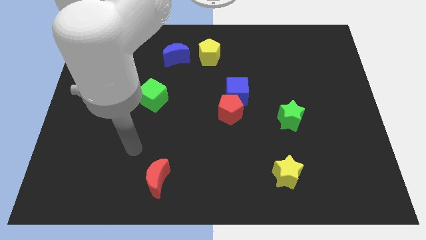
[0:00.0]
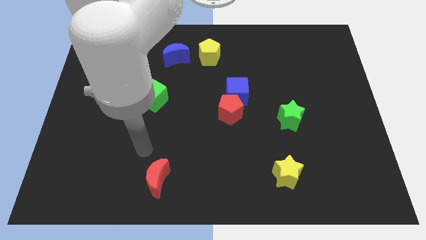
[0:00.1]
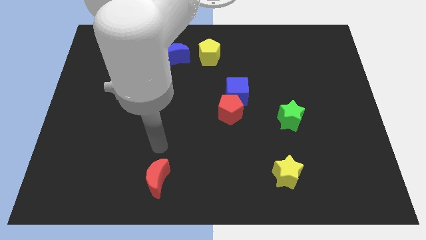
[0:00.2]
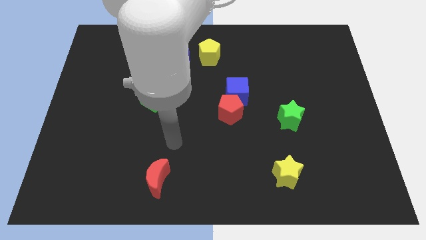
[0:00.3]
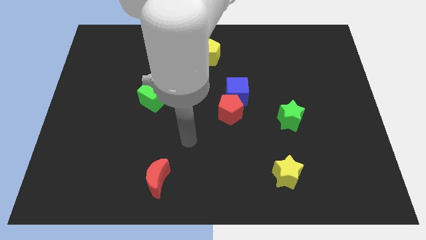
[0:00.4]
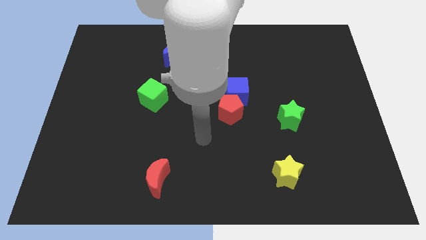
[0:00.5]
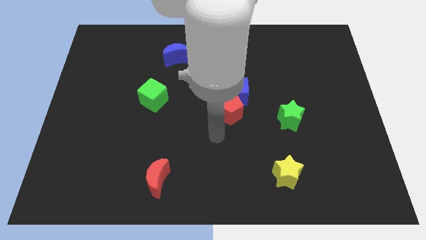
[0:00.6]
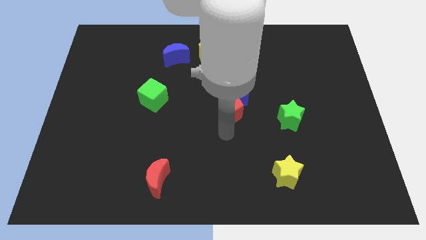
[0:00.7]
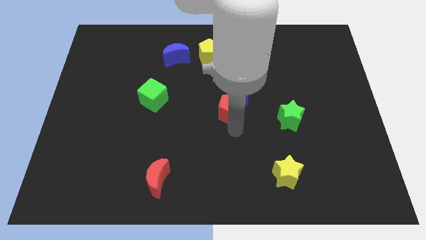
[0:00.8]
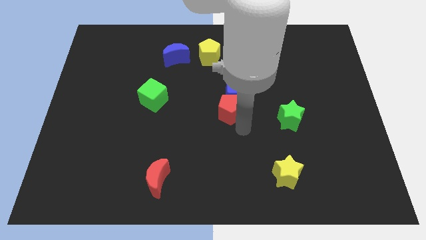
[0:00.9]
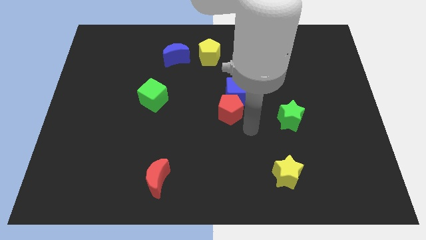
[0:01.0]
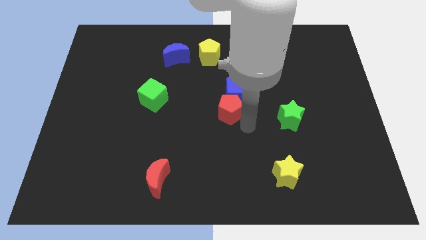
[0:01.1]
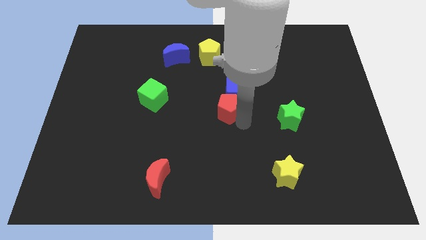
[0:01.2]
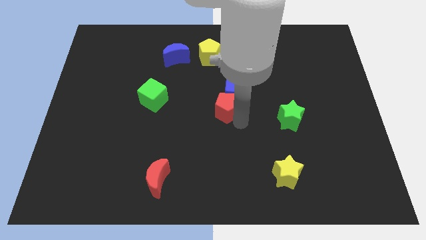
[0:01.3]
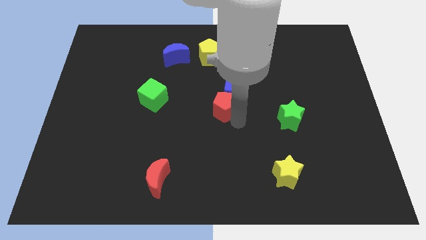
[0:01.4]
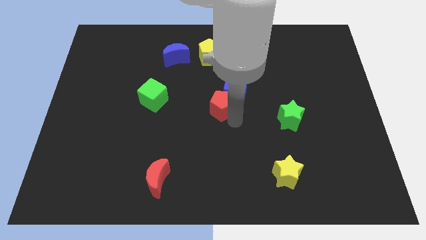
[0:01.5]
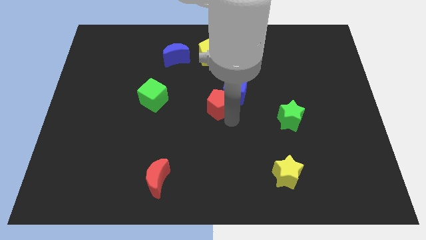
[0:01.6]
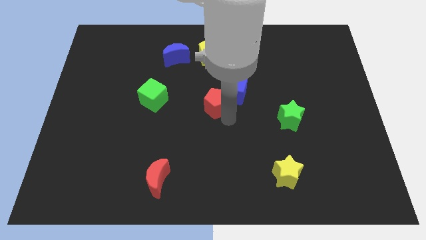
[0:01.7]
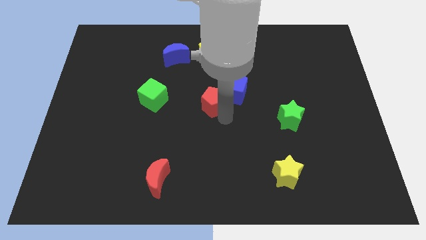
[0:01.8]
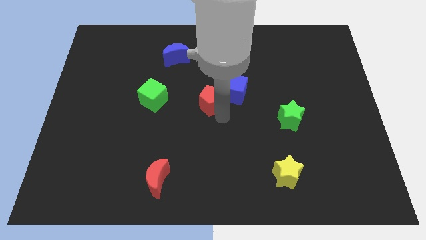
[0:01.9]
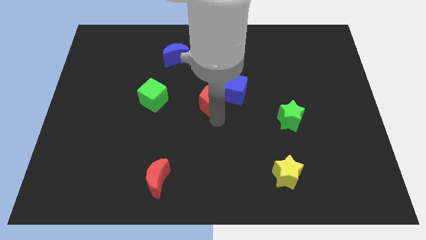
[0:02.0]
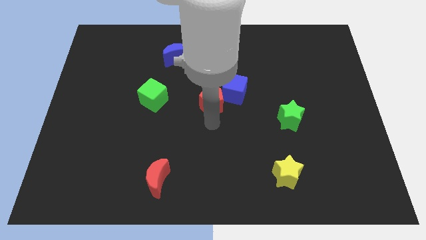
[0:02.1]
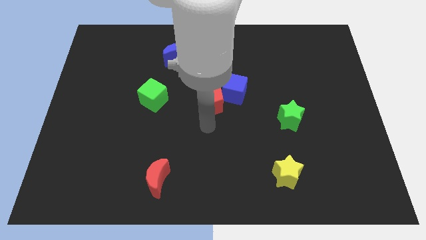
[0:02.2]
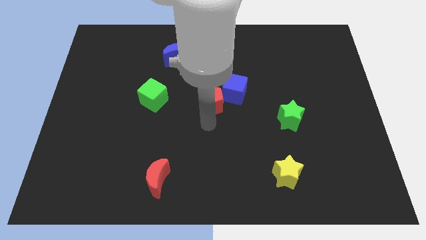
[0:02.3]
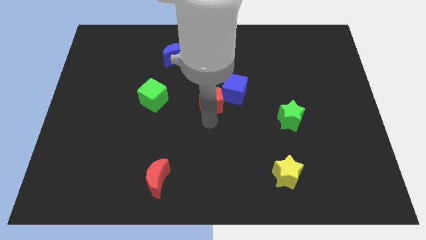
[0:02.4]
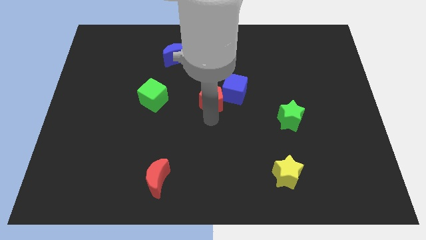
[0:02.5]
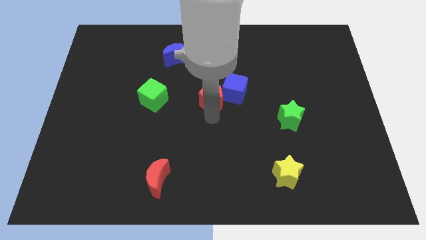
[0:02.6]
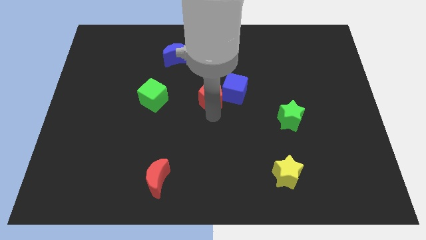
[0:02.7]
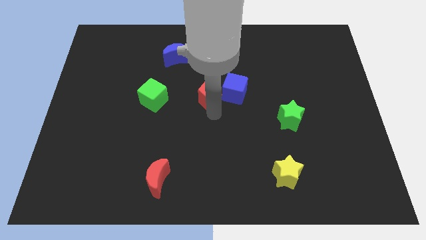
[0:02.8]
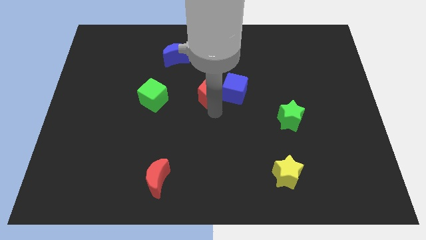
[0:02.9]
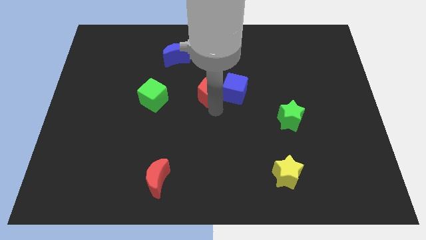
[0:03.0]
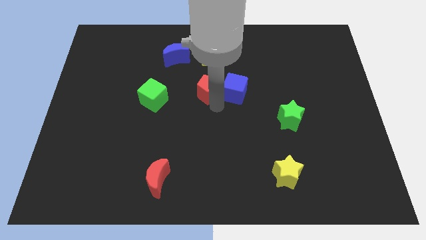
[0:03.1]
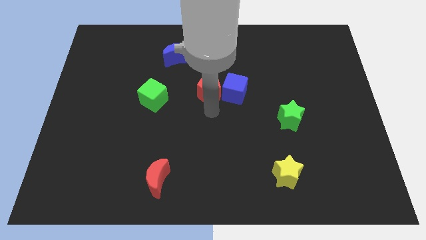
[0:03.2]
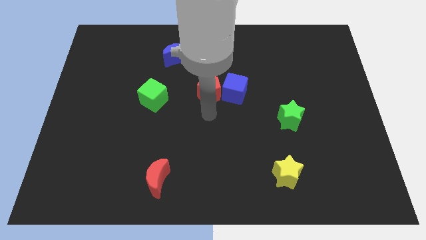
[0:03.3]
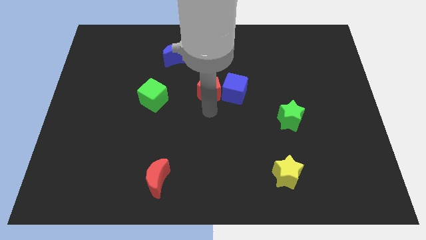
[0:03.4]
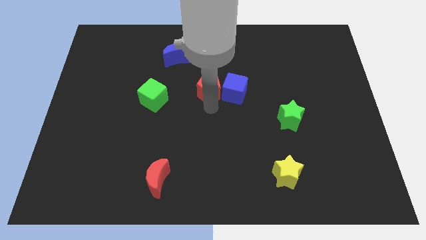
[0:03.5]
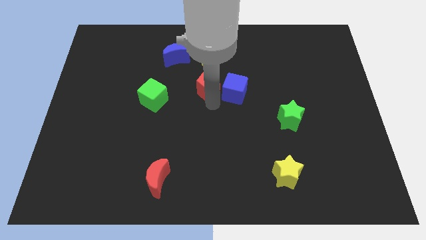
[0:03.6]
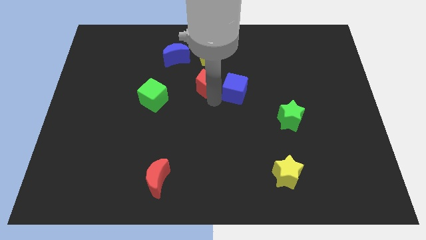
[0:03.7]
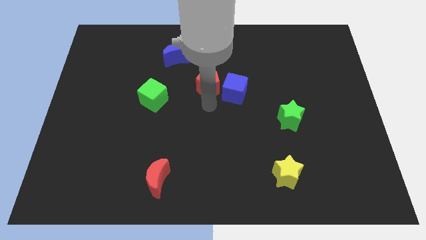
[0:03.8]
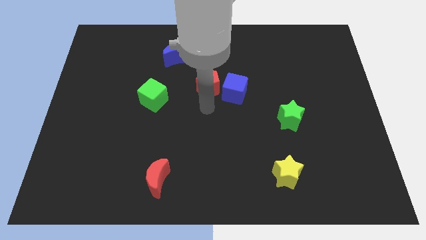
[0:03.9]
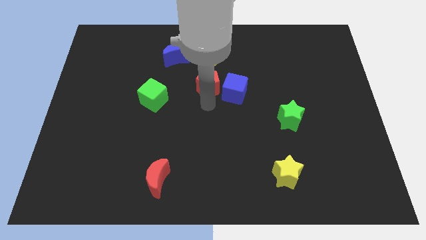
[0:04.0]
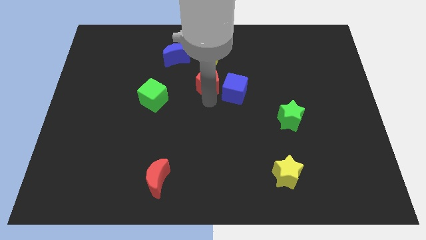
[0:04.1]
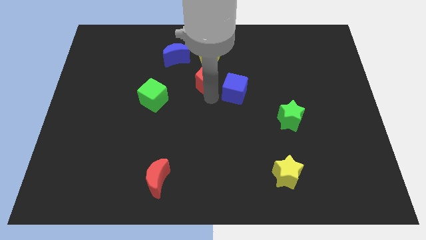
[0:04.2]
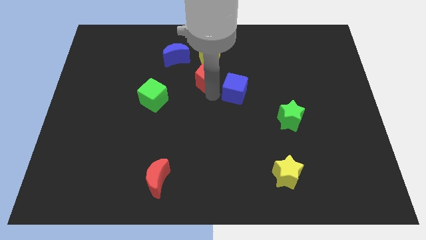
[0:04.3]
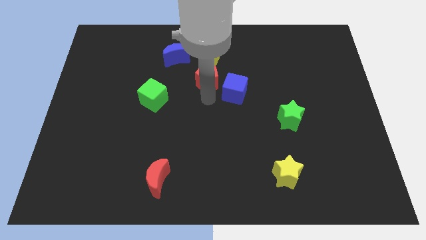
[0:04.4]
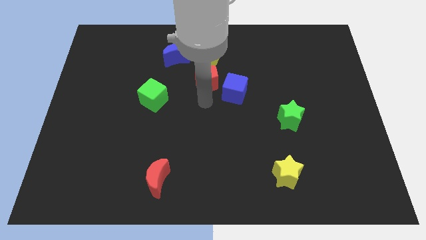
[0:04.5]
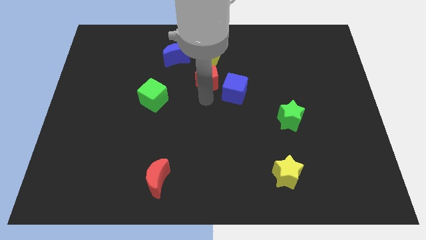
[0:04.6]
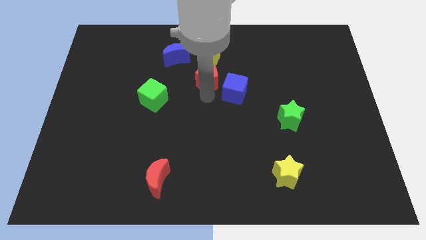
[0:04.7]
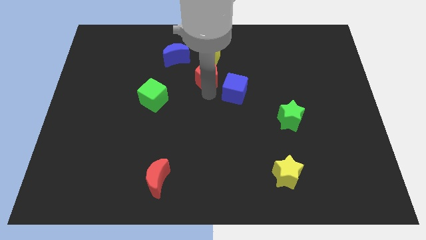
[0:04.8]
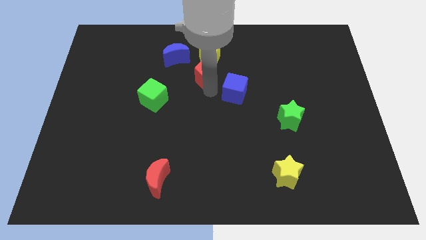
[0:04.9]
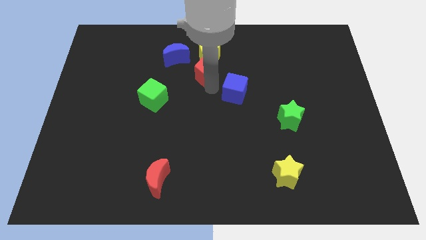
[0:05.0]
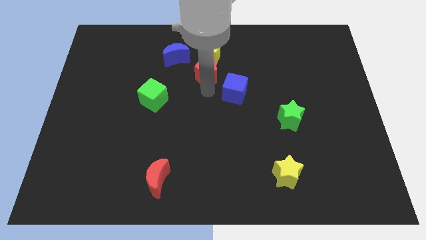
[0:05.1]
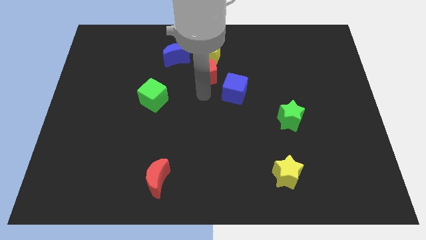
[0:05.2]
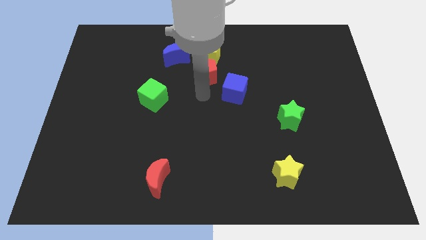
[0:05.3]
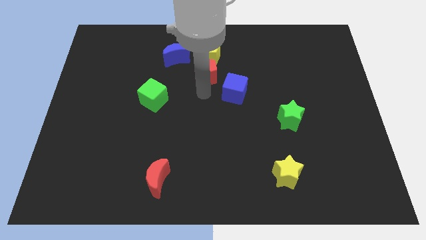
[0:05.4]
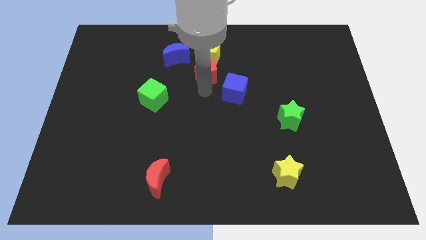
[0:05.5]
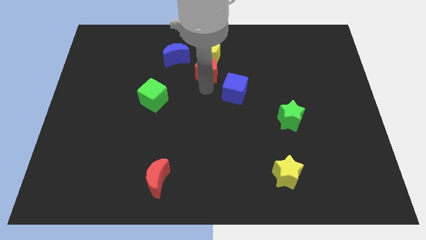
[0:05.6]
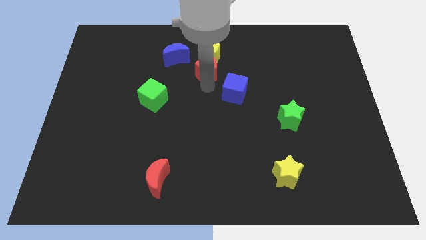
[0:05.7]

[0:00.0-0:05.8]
push the red pentagon towards the yellow pentagon

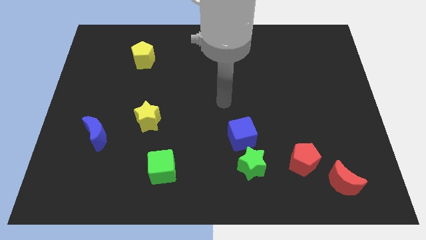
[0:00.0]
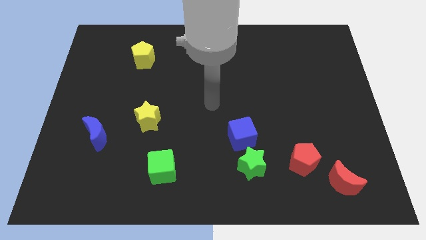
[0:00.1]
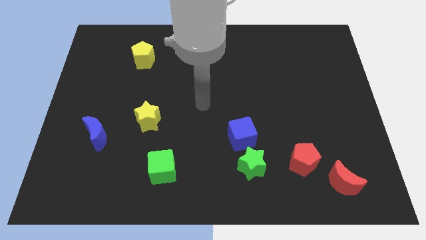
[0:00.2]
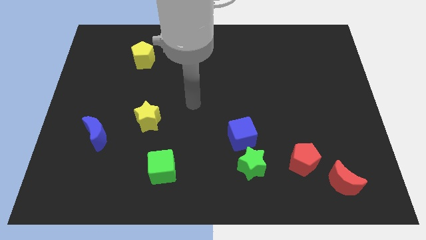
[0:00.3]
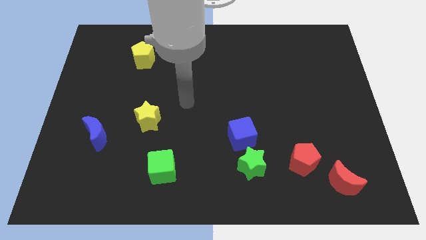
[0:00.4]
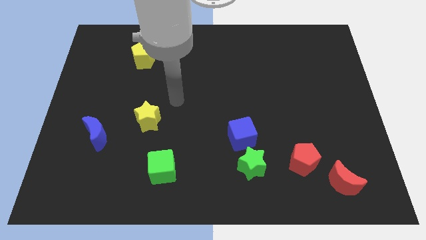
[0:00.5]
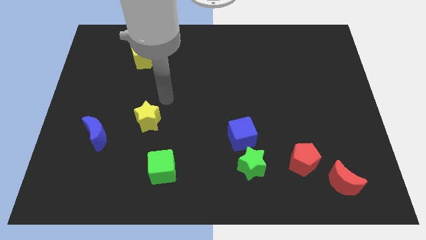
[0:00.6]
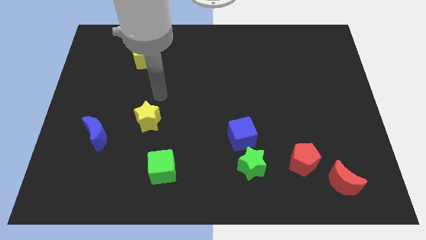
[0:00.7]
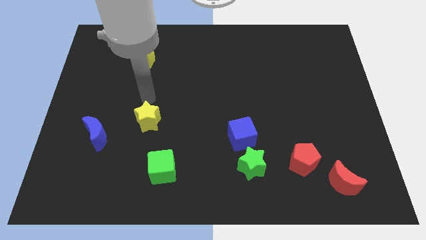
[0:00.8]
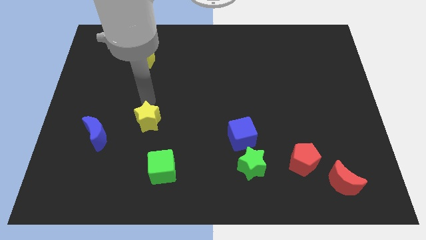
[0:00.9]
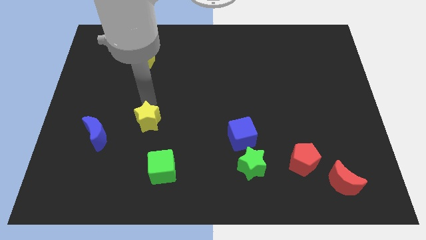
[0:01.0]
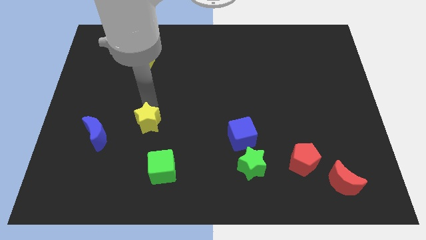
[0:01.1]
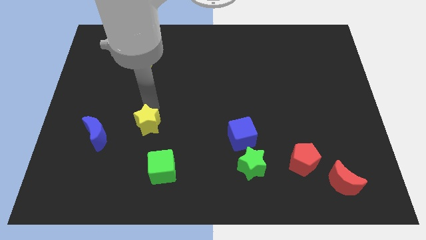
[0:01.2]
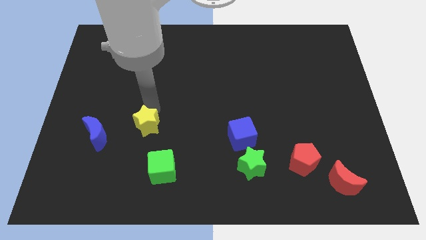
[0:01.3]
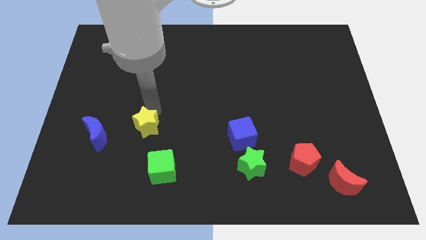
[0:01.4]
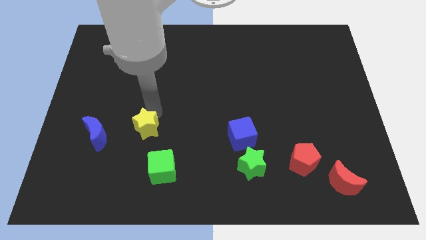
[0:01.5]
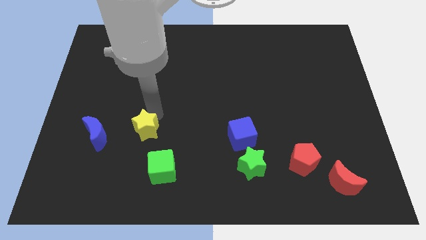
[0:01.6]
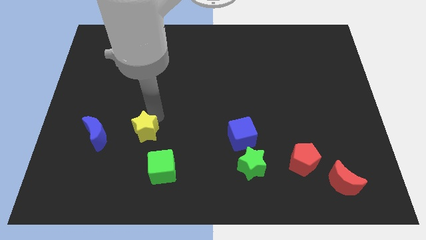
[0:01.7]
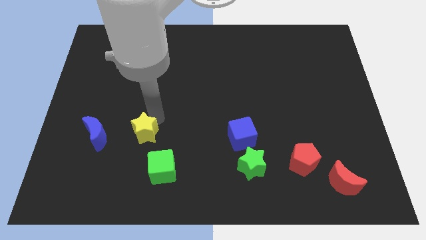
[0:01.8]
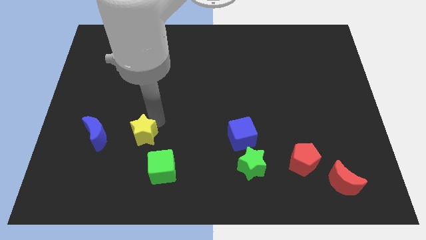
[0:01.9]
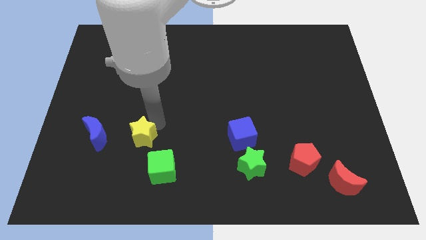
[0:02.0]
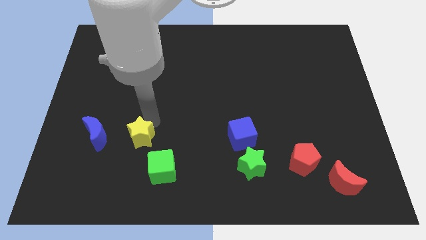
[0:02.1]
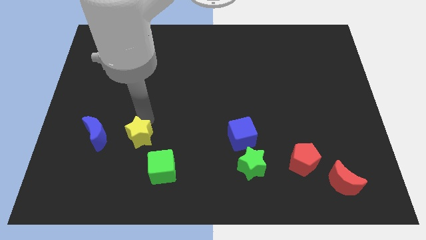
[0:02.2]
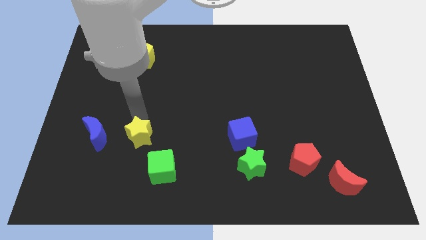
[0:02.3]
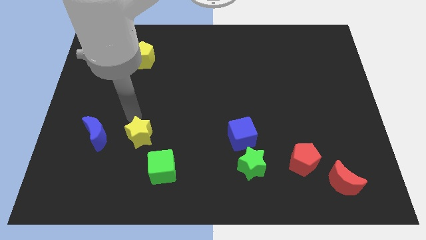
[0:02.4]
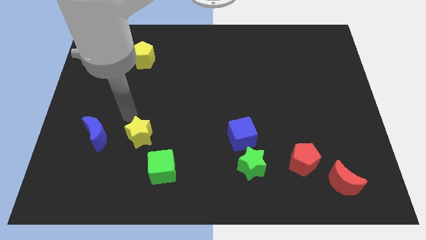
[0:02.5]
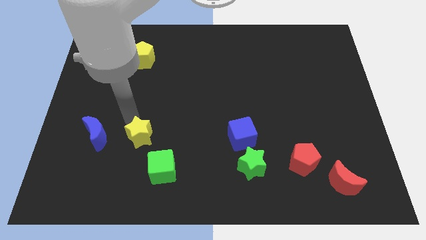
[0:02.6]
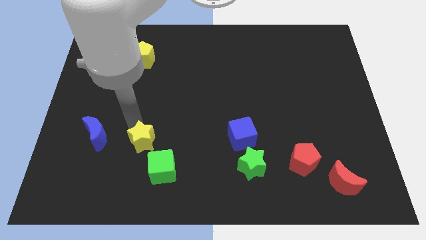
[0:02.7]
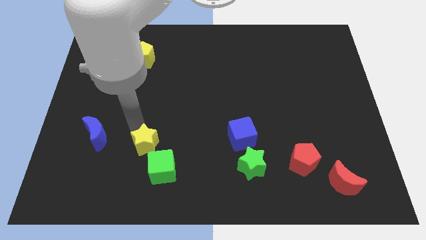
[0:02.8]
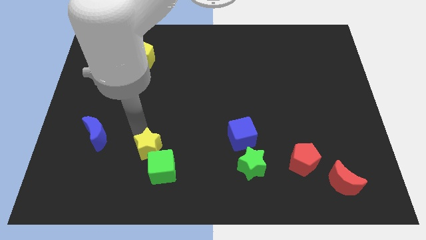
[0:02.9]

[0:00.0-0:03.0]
slide the yellow star next to the green cube
